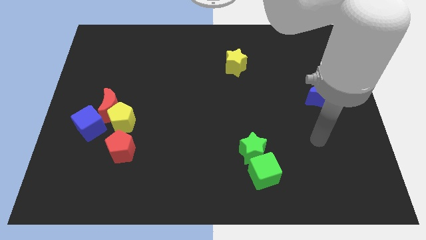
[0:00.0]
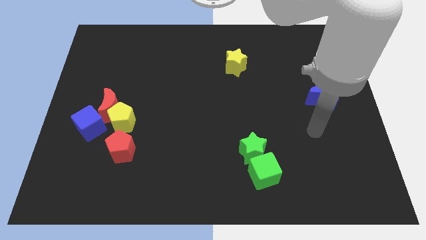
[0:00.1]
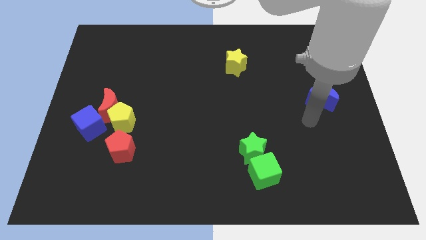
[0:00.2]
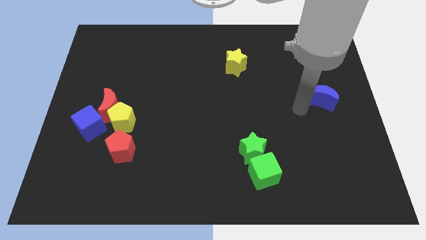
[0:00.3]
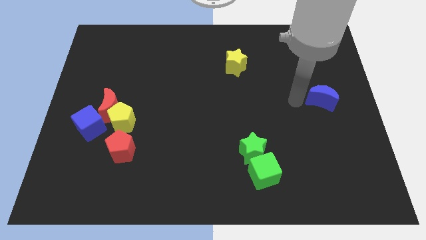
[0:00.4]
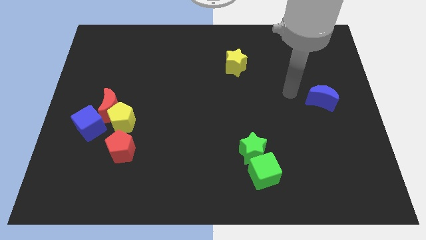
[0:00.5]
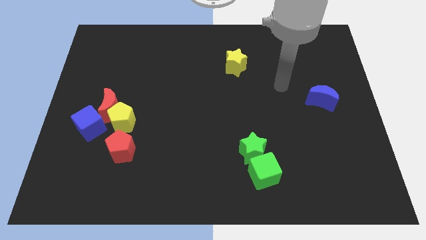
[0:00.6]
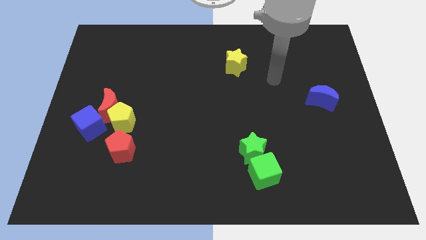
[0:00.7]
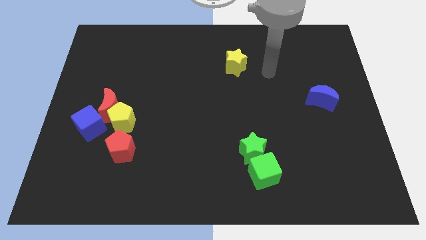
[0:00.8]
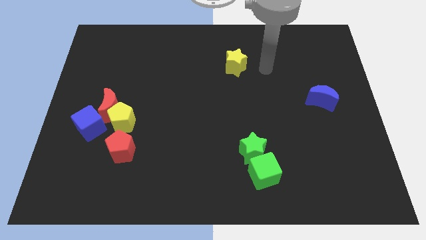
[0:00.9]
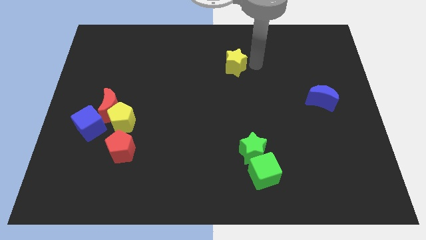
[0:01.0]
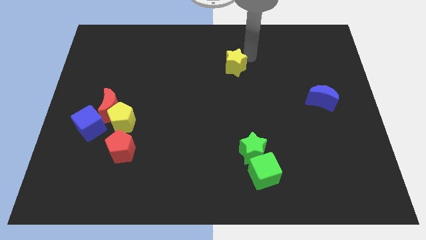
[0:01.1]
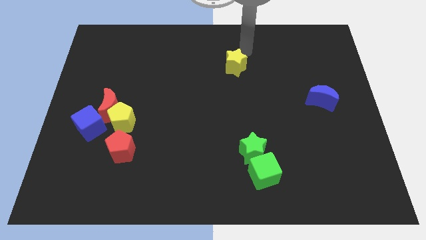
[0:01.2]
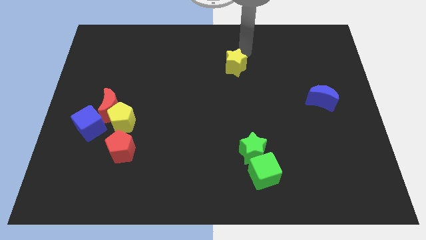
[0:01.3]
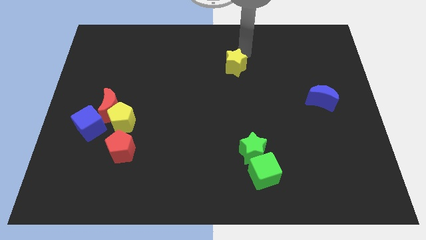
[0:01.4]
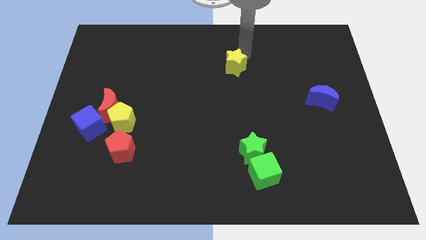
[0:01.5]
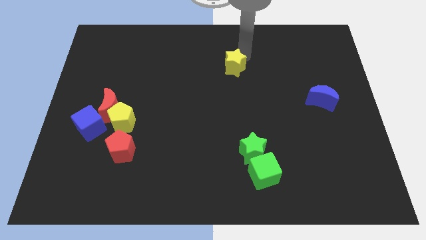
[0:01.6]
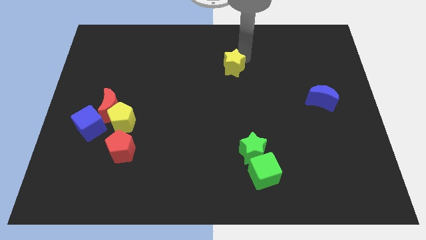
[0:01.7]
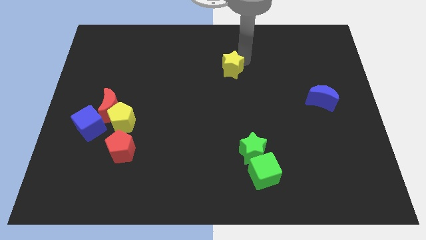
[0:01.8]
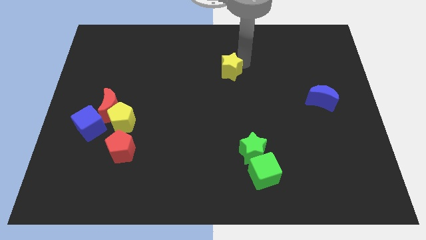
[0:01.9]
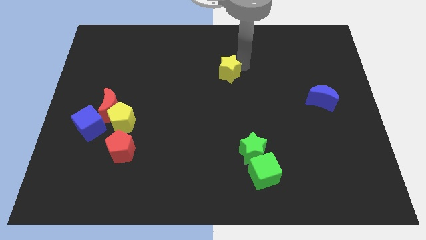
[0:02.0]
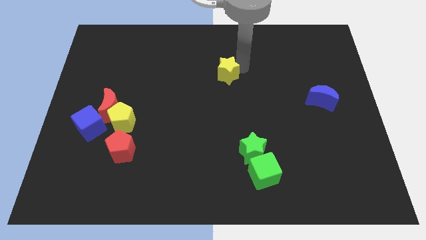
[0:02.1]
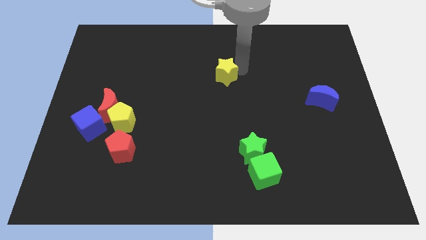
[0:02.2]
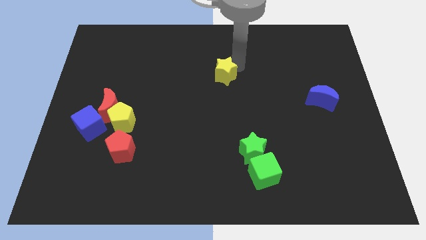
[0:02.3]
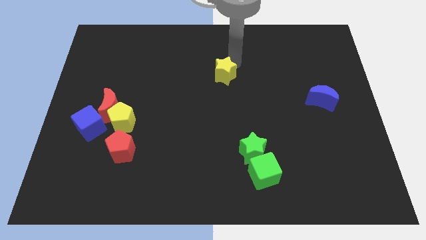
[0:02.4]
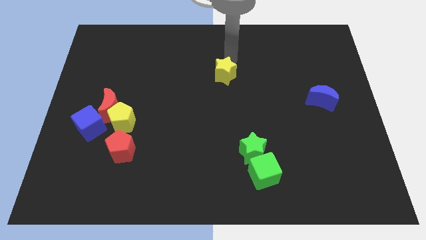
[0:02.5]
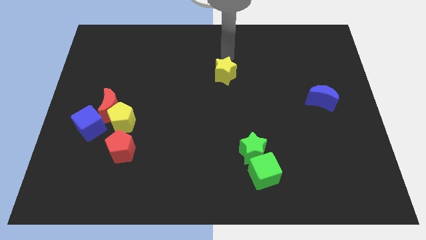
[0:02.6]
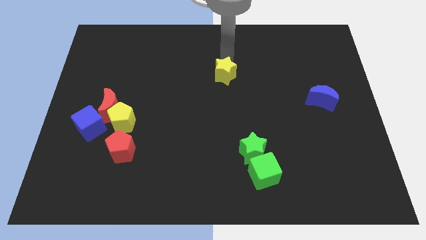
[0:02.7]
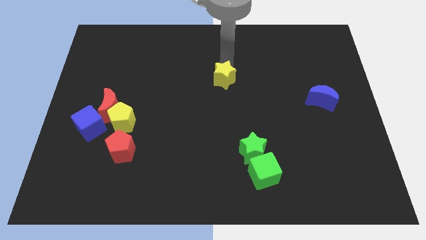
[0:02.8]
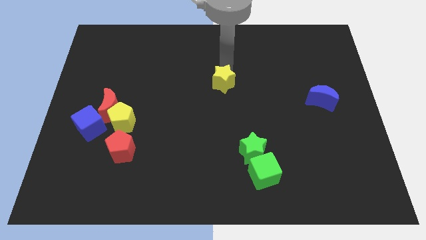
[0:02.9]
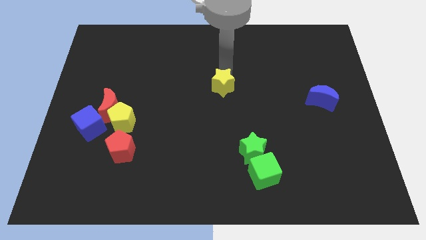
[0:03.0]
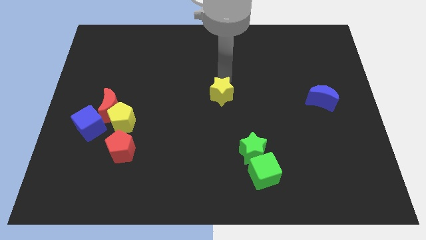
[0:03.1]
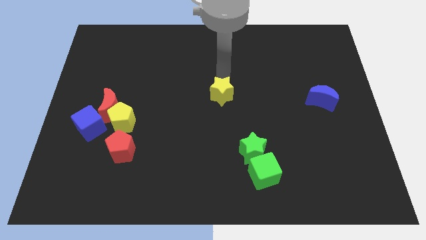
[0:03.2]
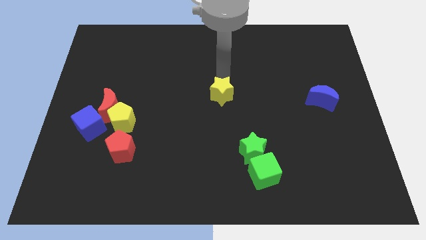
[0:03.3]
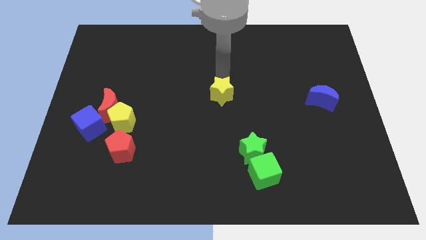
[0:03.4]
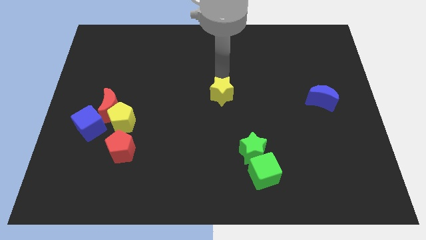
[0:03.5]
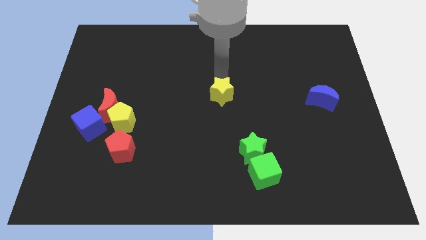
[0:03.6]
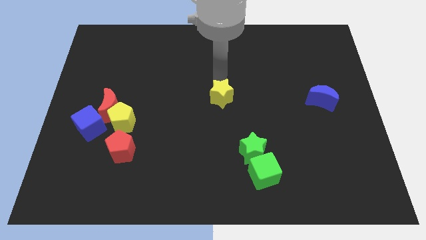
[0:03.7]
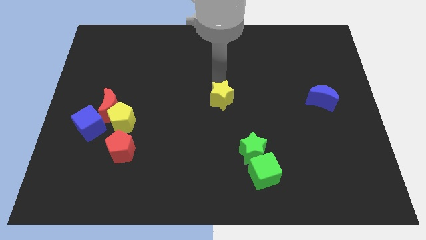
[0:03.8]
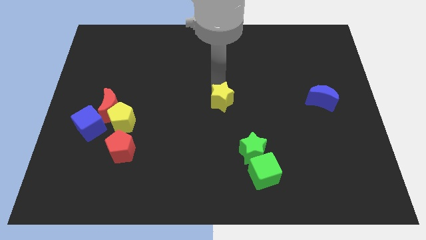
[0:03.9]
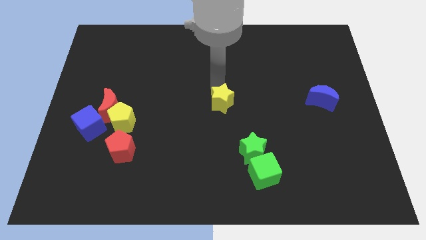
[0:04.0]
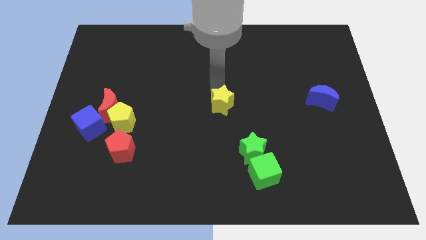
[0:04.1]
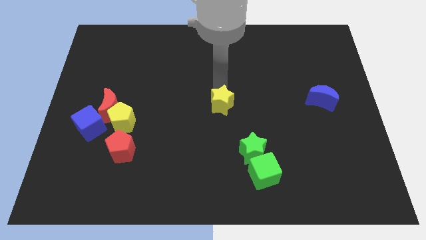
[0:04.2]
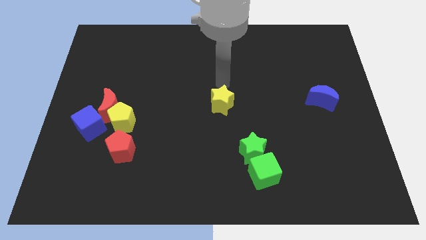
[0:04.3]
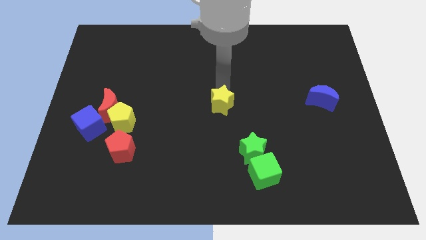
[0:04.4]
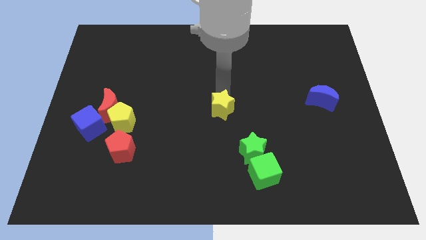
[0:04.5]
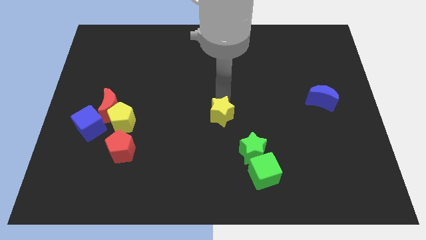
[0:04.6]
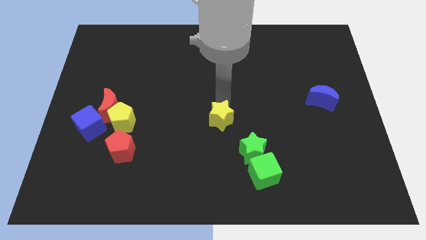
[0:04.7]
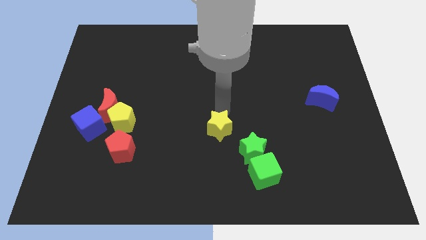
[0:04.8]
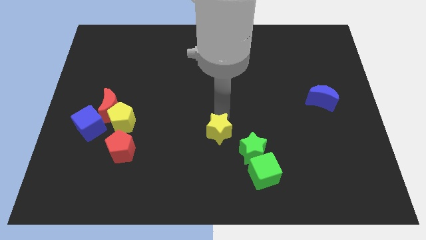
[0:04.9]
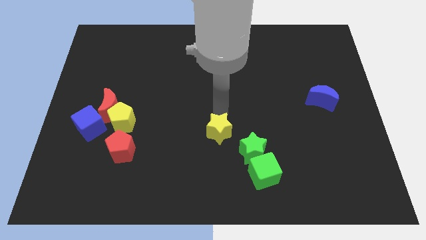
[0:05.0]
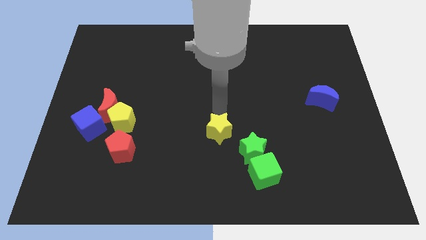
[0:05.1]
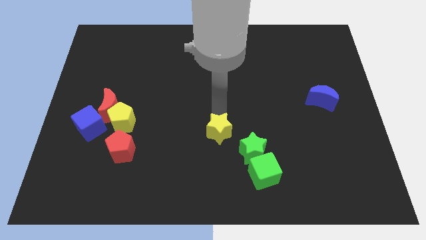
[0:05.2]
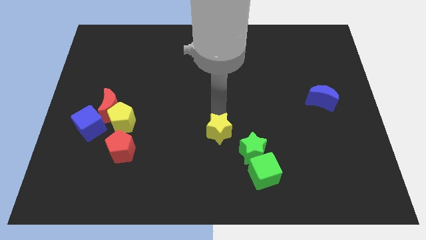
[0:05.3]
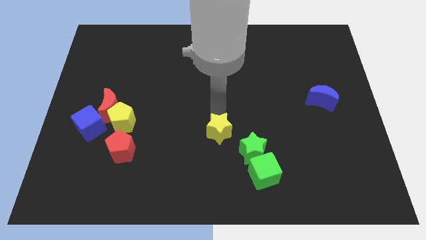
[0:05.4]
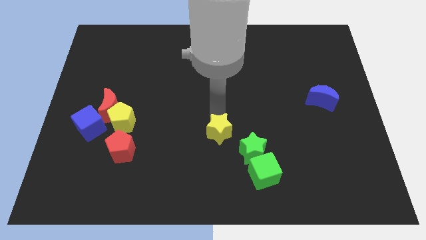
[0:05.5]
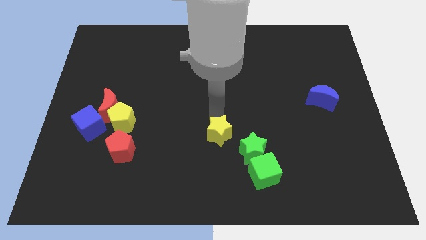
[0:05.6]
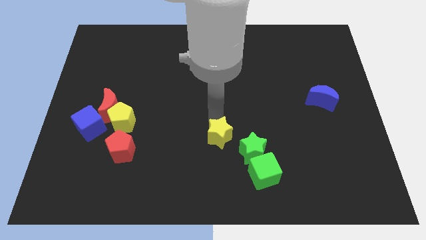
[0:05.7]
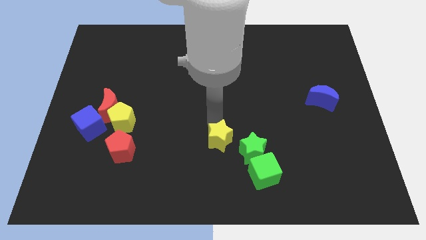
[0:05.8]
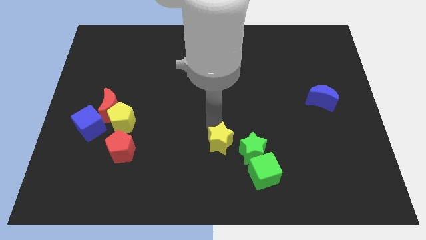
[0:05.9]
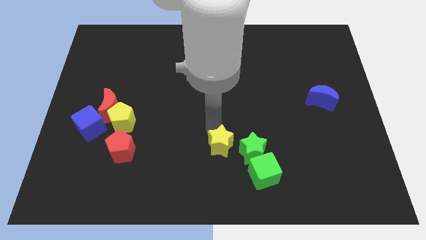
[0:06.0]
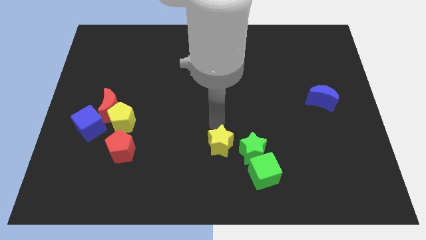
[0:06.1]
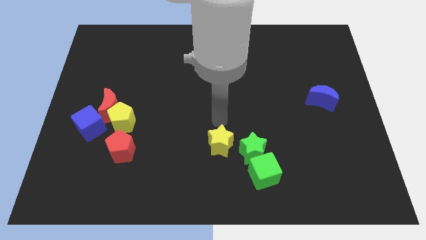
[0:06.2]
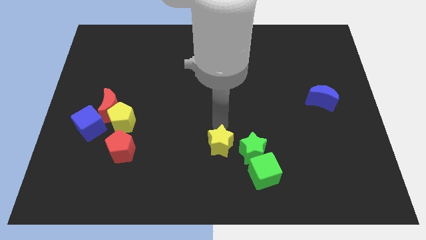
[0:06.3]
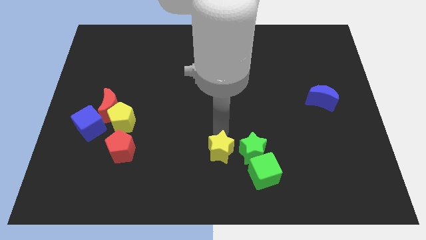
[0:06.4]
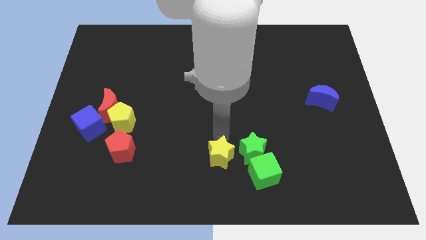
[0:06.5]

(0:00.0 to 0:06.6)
move the yellow star to the bottom side
